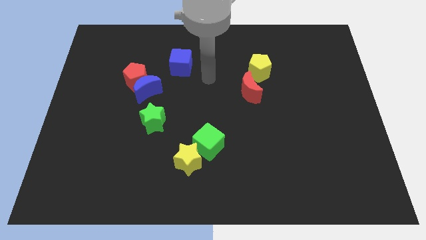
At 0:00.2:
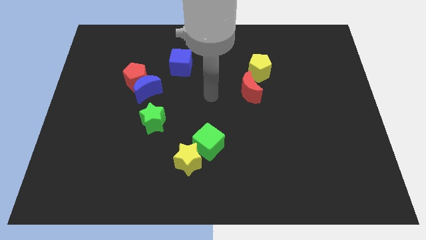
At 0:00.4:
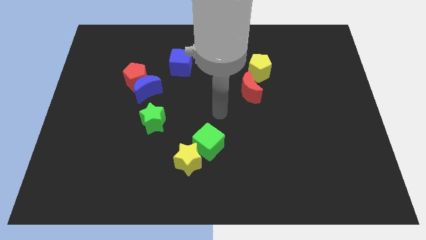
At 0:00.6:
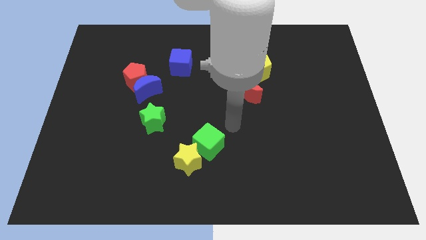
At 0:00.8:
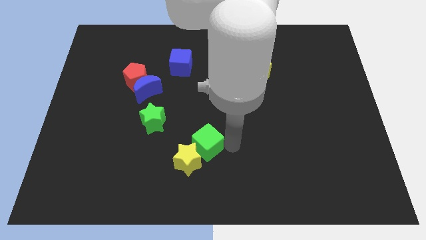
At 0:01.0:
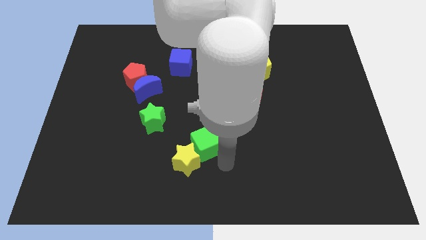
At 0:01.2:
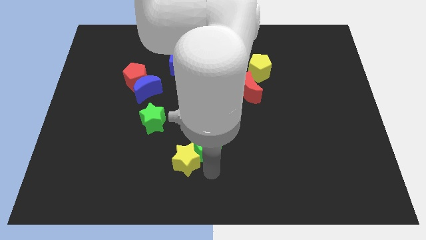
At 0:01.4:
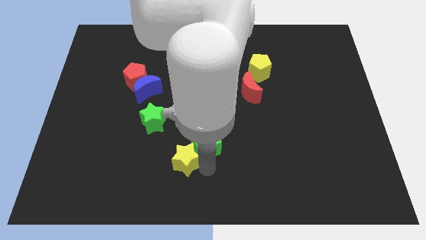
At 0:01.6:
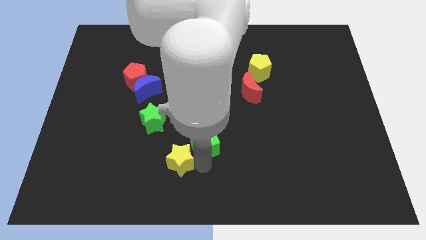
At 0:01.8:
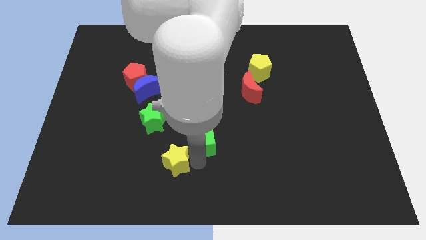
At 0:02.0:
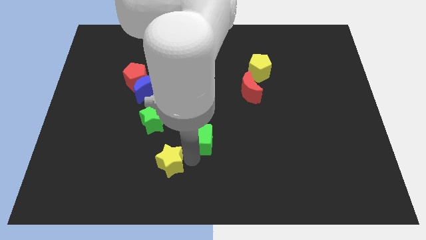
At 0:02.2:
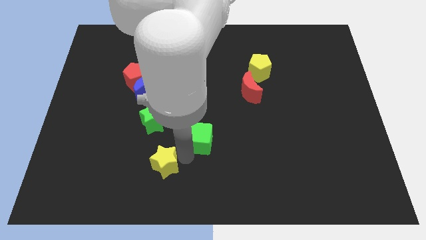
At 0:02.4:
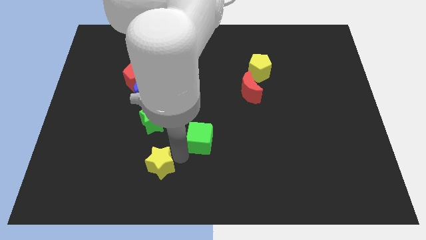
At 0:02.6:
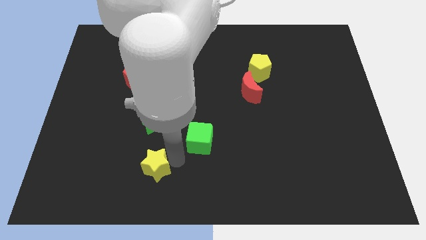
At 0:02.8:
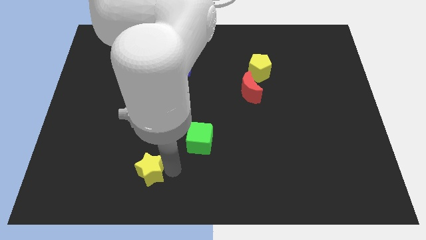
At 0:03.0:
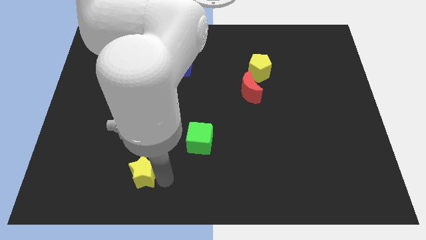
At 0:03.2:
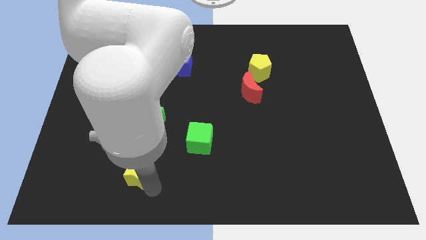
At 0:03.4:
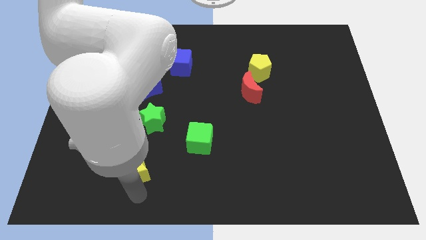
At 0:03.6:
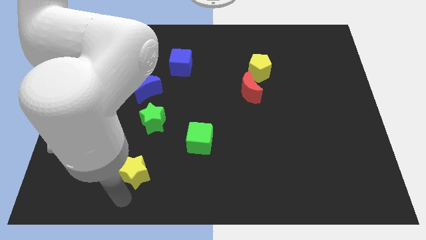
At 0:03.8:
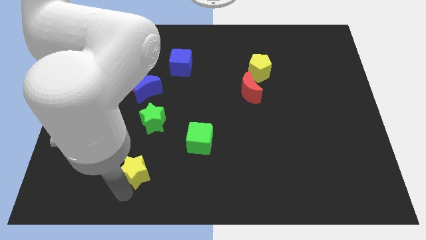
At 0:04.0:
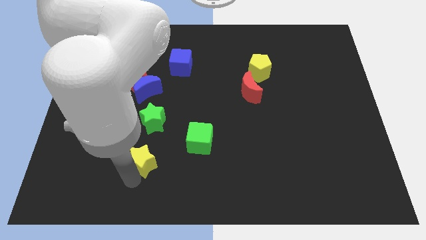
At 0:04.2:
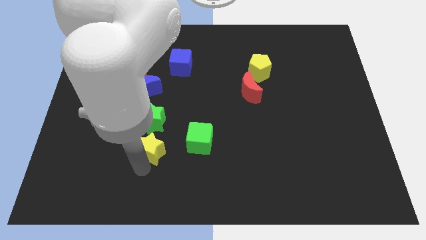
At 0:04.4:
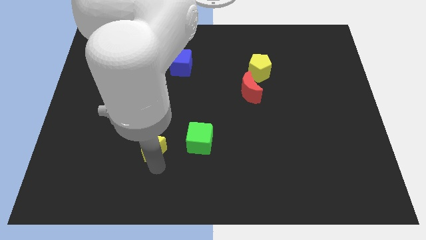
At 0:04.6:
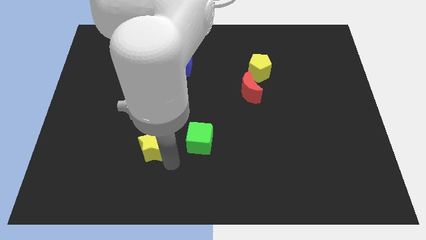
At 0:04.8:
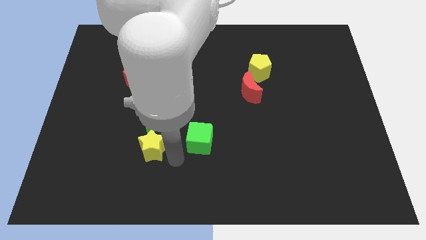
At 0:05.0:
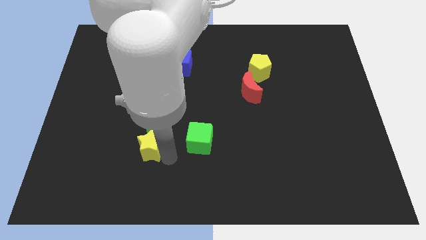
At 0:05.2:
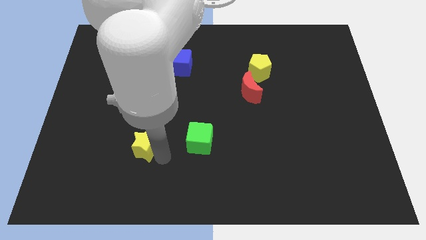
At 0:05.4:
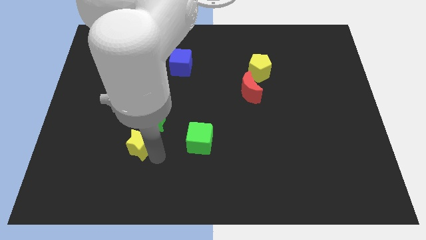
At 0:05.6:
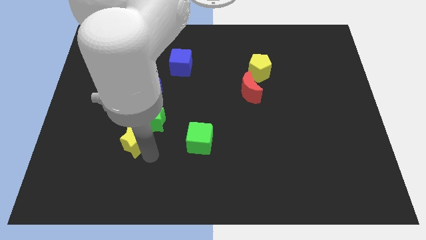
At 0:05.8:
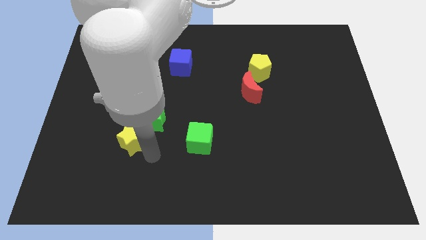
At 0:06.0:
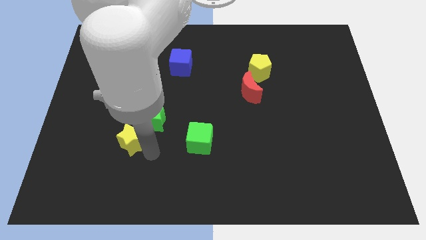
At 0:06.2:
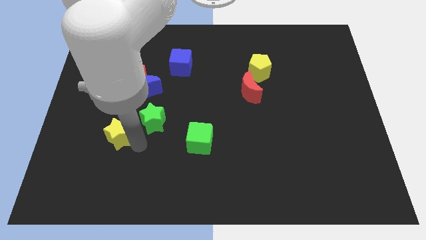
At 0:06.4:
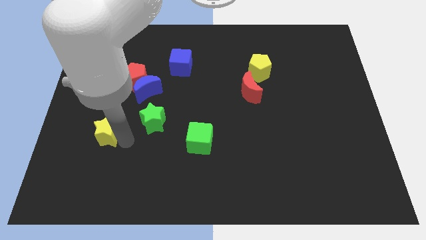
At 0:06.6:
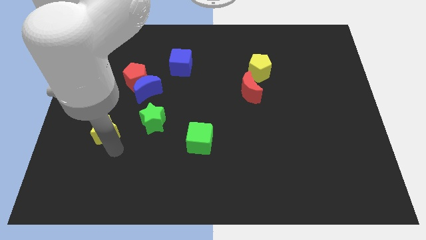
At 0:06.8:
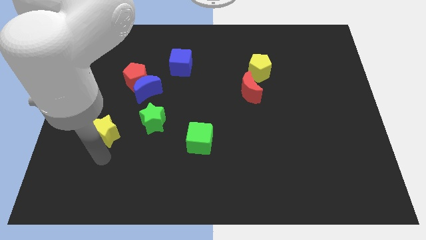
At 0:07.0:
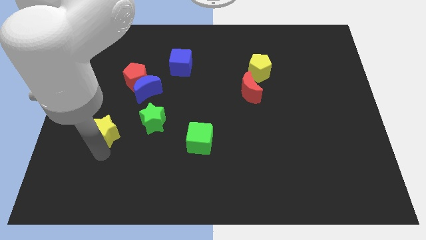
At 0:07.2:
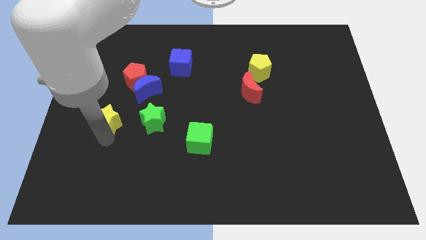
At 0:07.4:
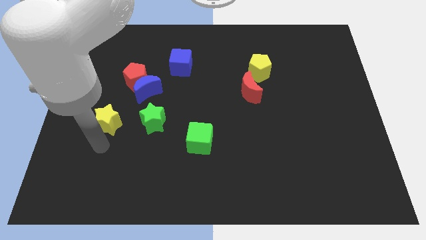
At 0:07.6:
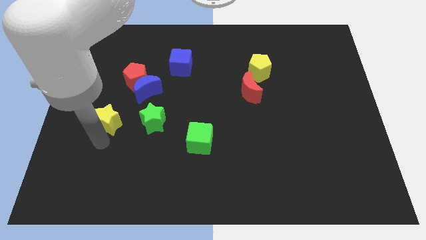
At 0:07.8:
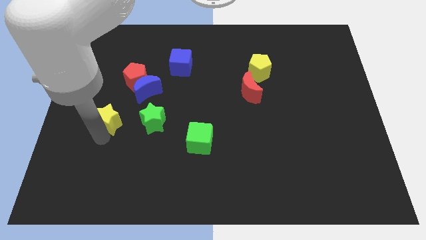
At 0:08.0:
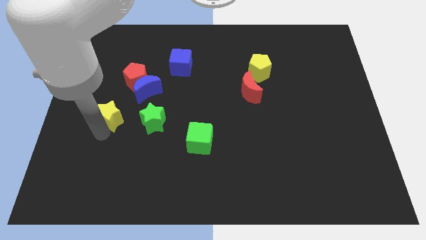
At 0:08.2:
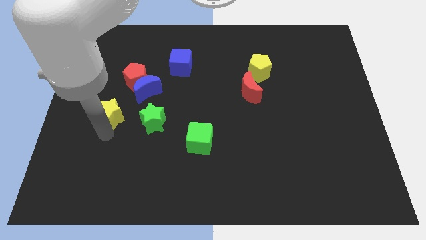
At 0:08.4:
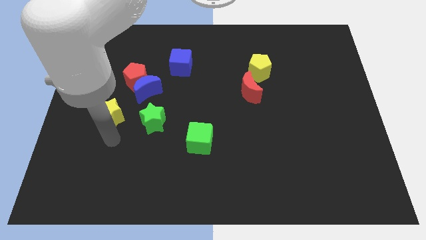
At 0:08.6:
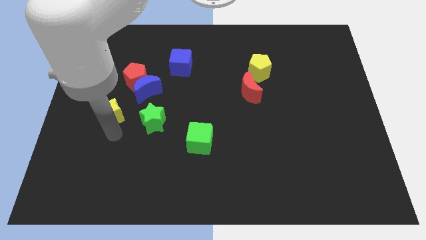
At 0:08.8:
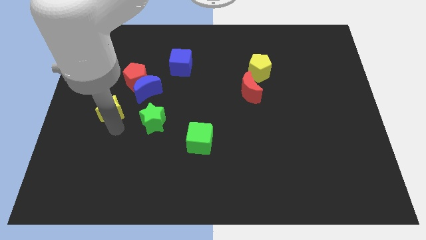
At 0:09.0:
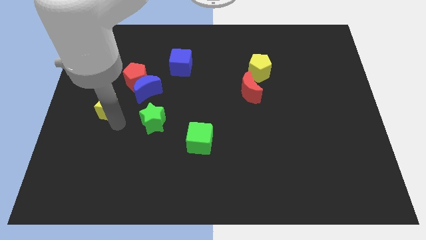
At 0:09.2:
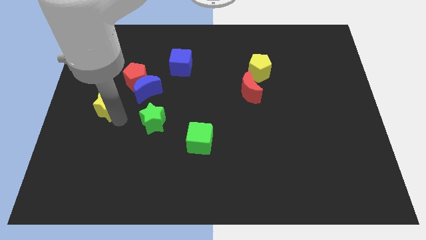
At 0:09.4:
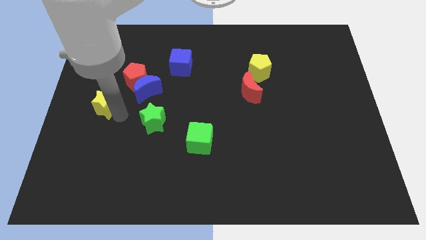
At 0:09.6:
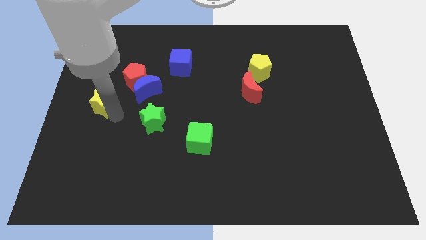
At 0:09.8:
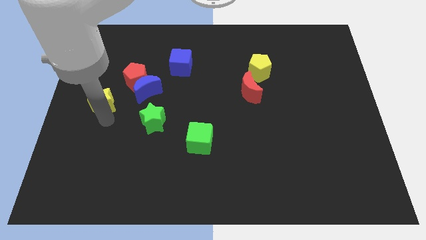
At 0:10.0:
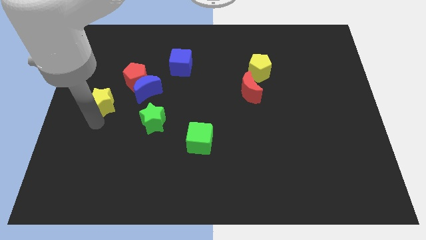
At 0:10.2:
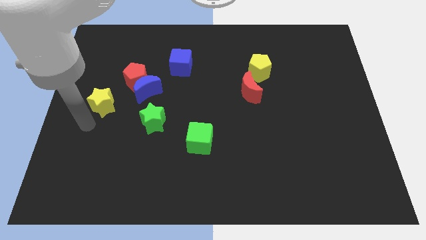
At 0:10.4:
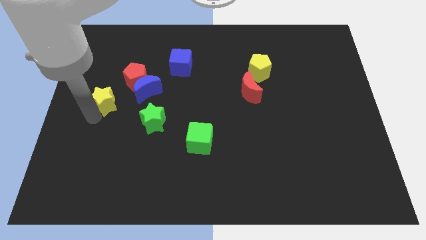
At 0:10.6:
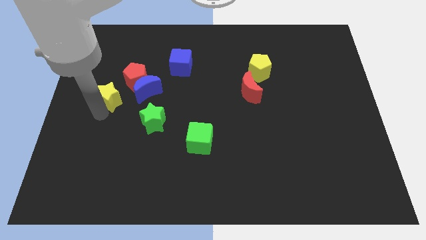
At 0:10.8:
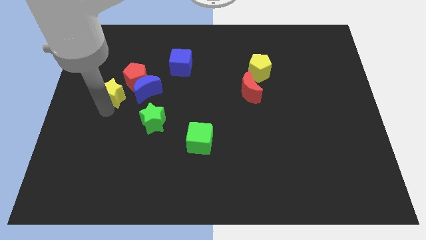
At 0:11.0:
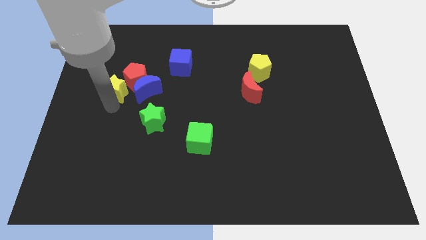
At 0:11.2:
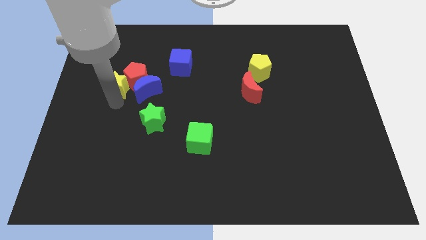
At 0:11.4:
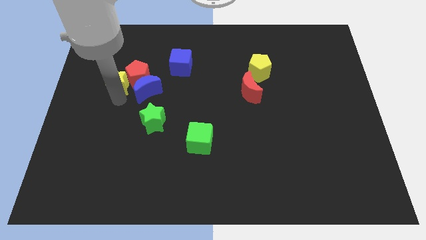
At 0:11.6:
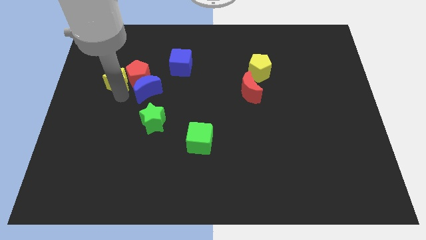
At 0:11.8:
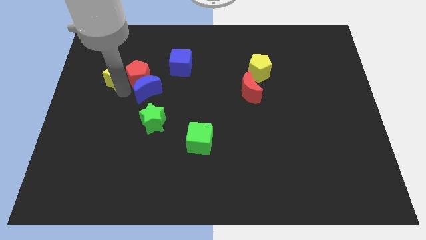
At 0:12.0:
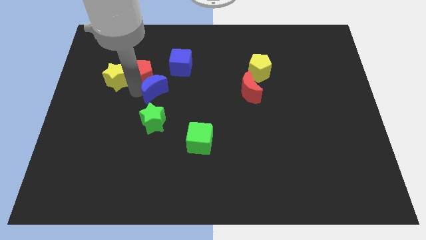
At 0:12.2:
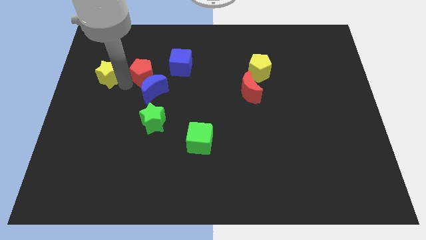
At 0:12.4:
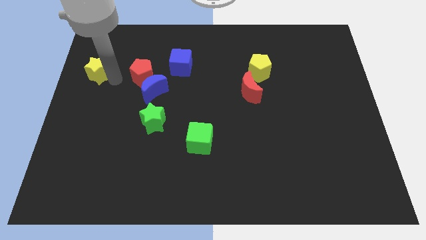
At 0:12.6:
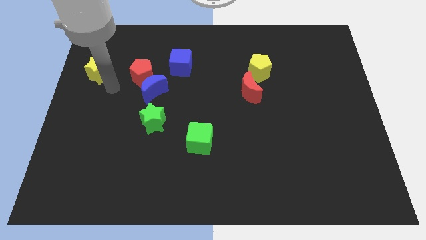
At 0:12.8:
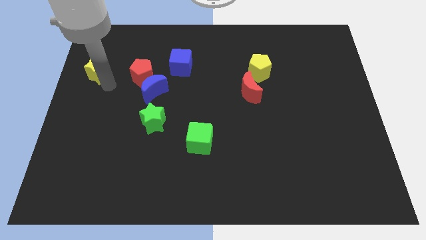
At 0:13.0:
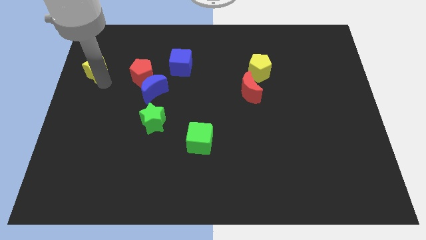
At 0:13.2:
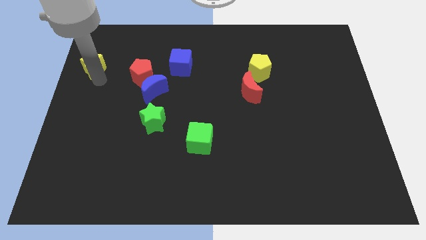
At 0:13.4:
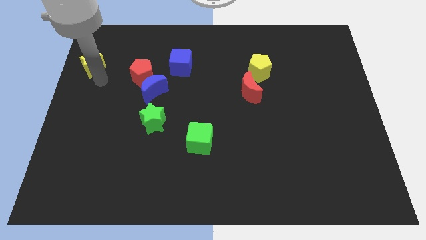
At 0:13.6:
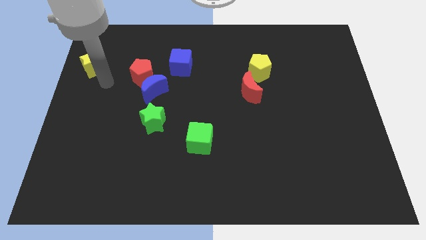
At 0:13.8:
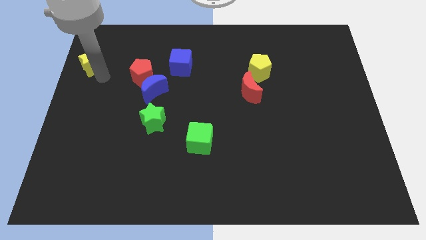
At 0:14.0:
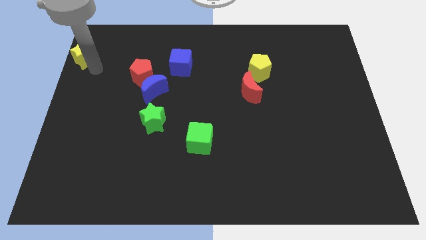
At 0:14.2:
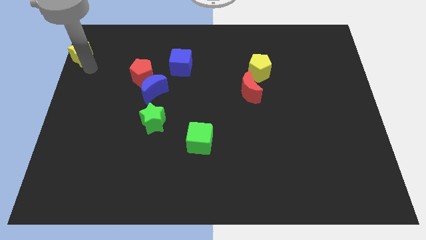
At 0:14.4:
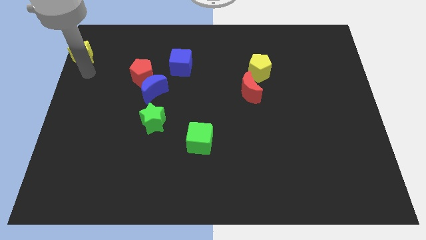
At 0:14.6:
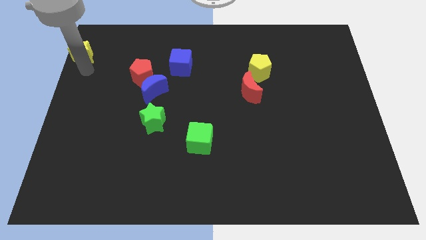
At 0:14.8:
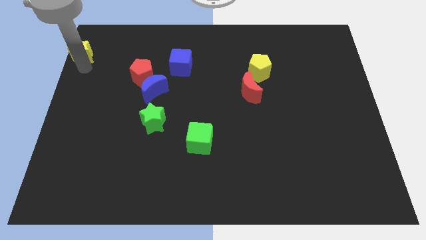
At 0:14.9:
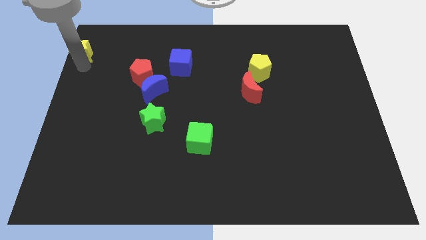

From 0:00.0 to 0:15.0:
put the yellow star to the top left corner
